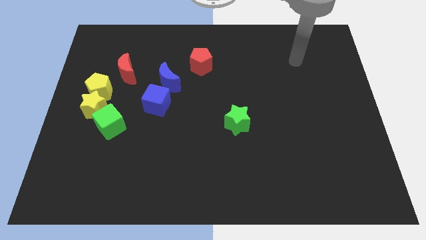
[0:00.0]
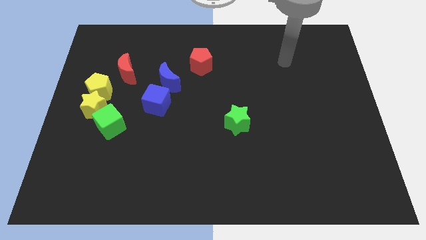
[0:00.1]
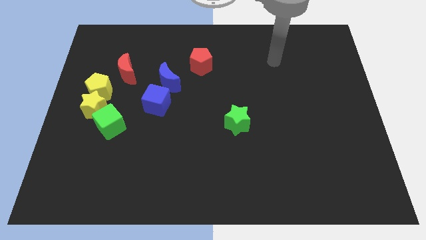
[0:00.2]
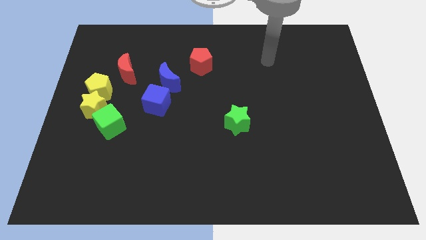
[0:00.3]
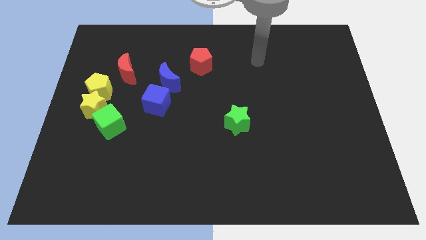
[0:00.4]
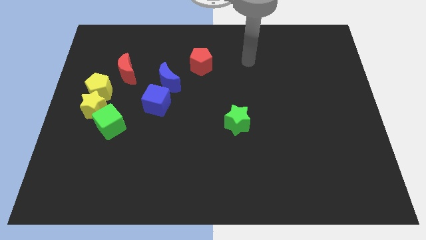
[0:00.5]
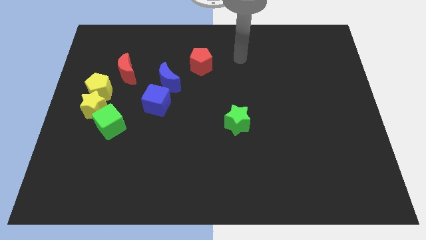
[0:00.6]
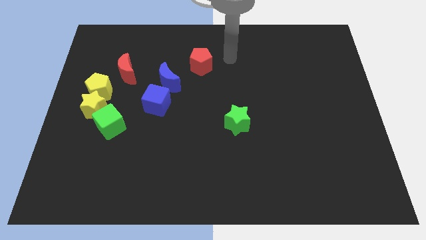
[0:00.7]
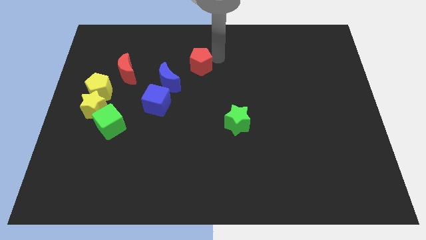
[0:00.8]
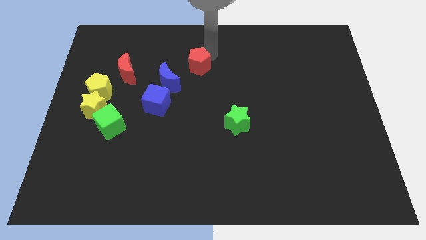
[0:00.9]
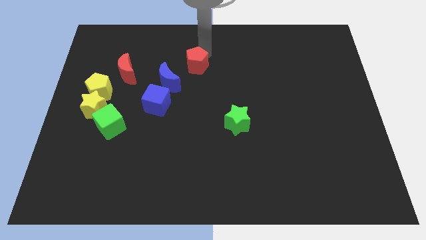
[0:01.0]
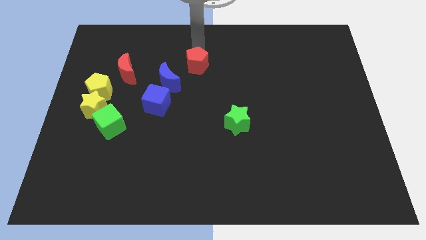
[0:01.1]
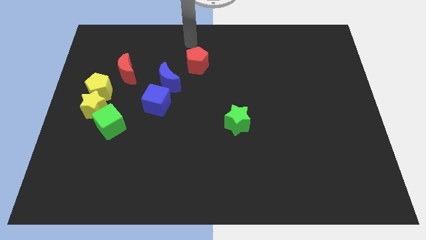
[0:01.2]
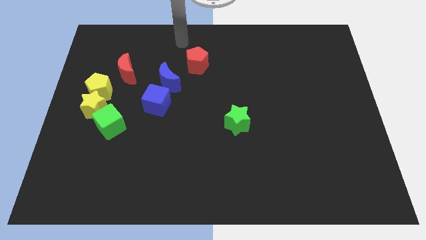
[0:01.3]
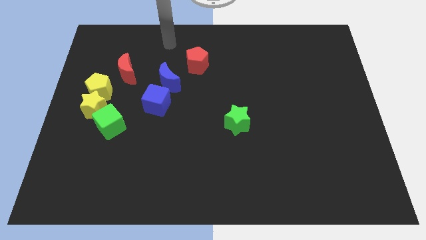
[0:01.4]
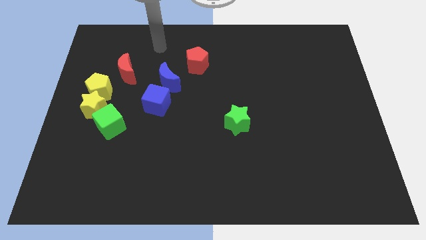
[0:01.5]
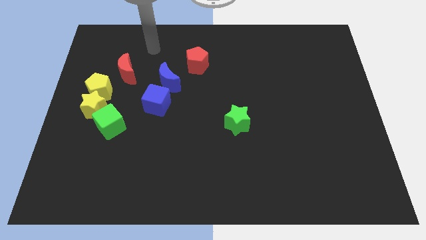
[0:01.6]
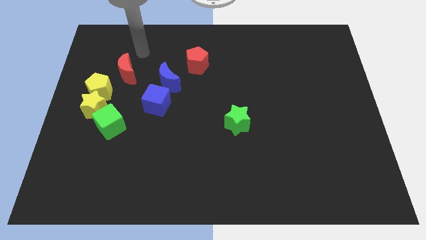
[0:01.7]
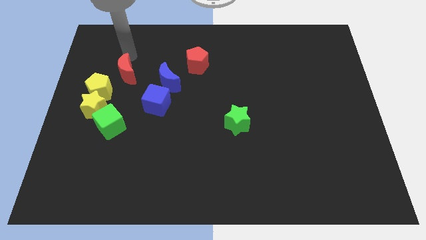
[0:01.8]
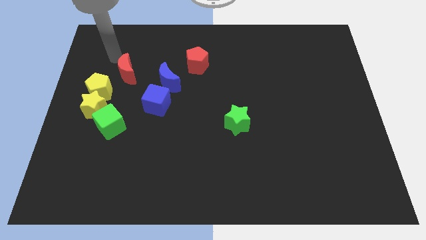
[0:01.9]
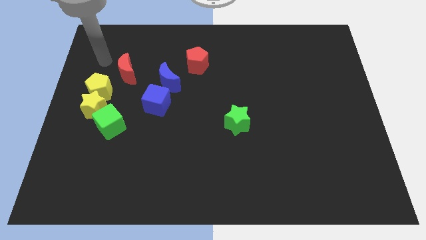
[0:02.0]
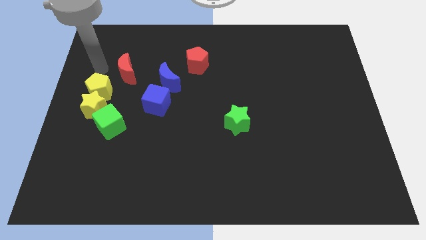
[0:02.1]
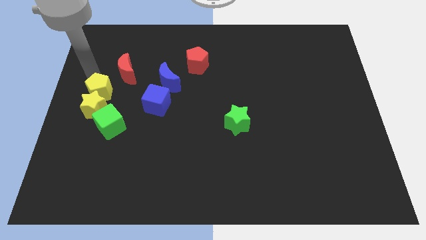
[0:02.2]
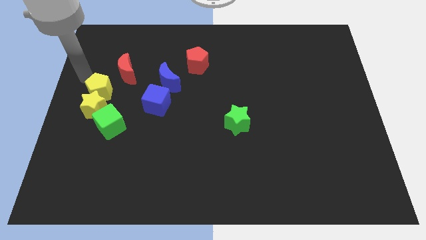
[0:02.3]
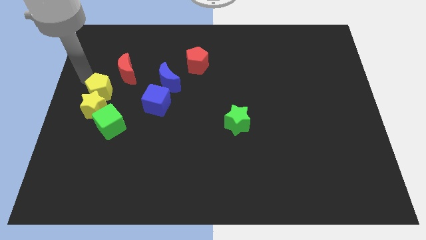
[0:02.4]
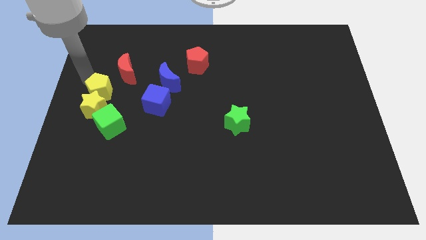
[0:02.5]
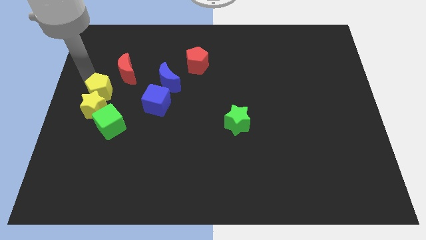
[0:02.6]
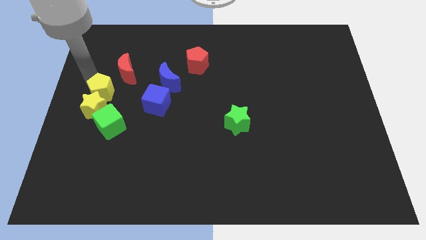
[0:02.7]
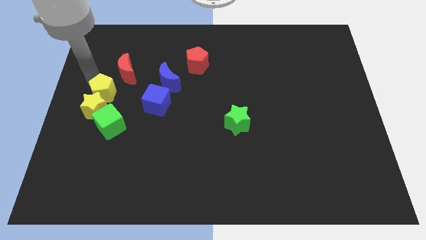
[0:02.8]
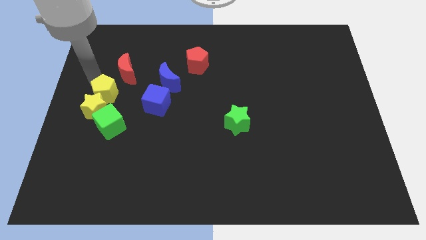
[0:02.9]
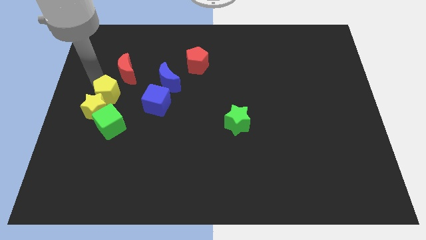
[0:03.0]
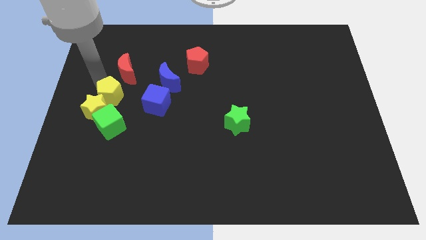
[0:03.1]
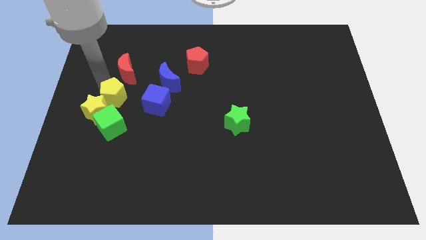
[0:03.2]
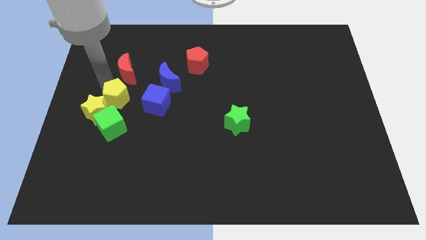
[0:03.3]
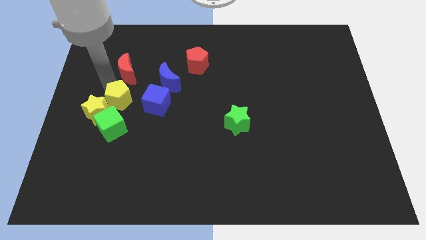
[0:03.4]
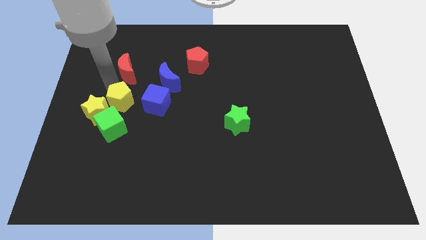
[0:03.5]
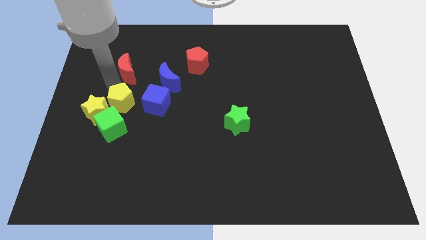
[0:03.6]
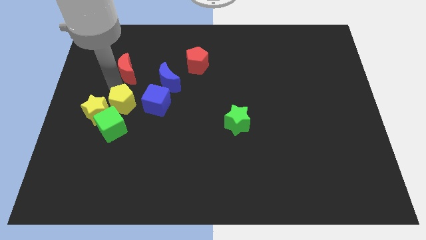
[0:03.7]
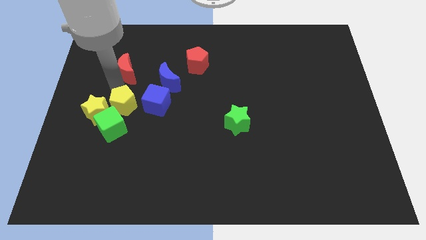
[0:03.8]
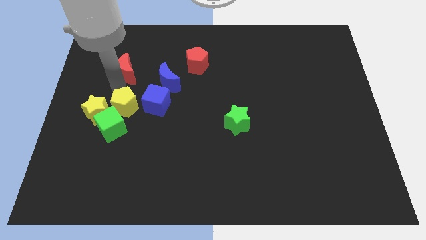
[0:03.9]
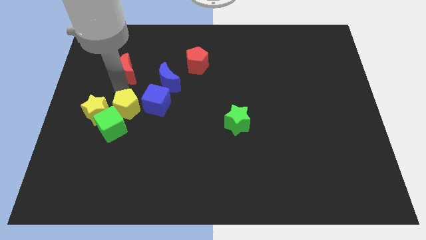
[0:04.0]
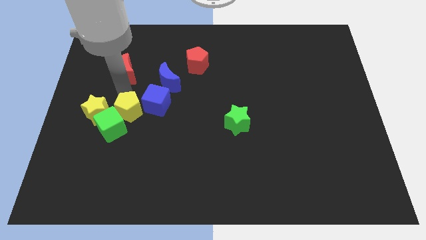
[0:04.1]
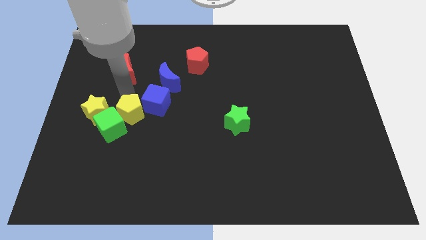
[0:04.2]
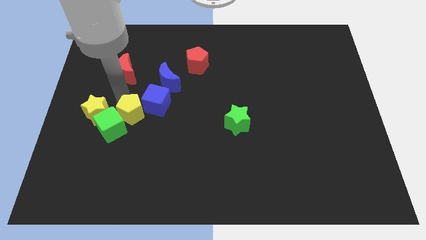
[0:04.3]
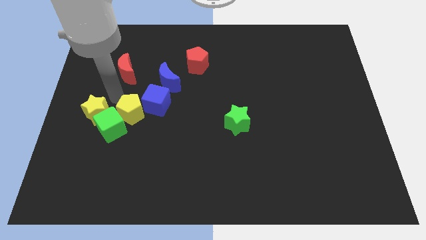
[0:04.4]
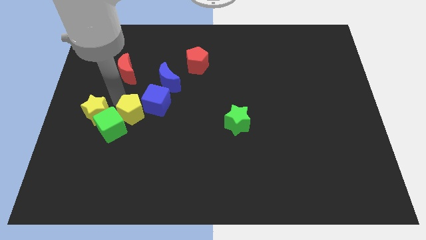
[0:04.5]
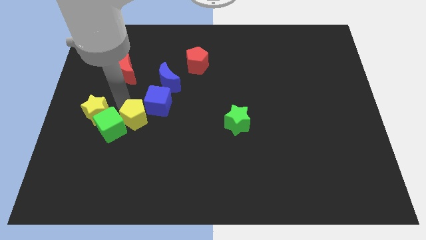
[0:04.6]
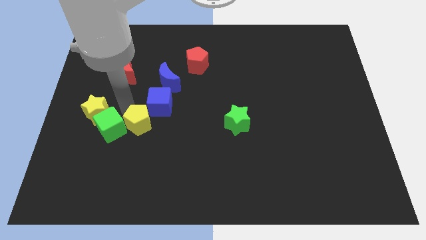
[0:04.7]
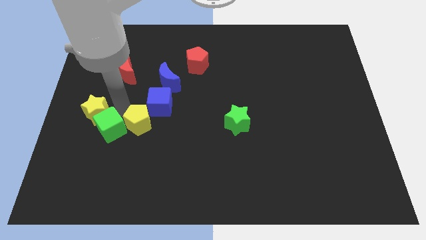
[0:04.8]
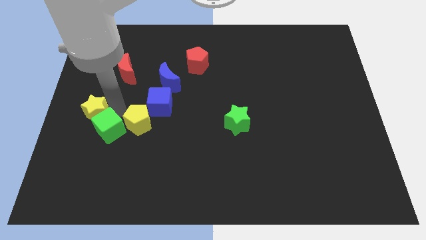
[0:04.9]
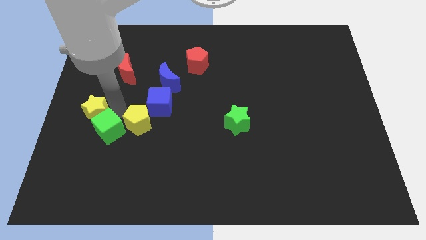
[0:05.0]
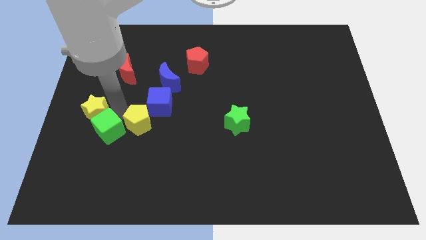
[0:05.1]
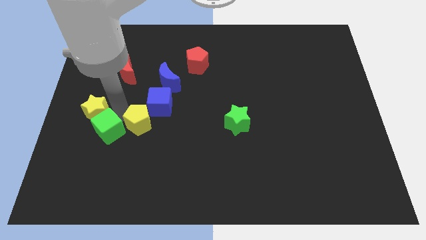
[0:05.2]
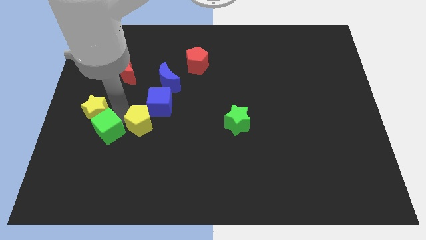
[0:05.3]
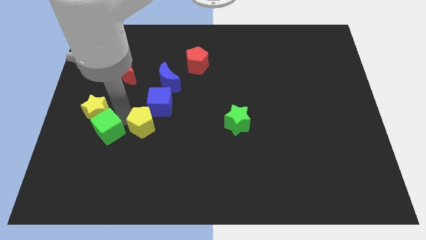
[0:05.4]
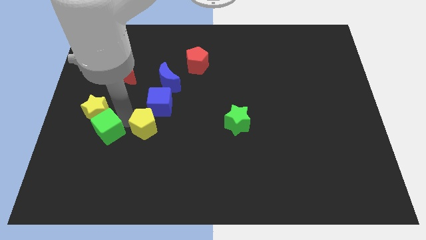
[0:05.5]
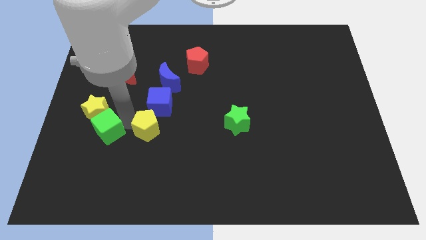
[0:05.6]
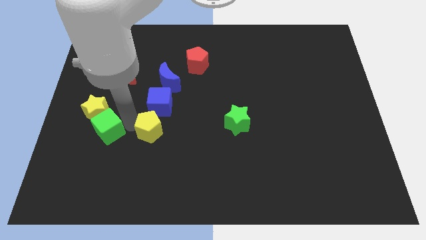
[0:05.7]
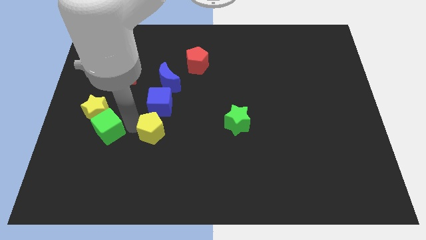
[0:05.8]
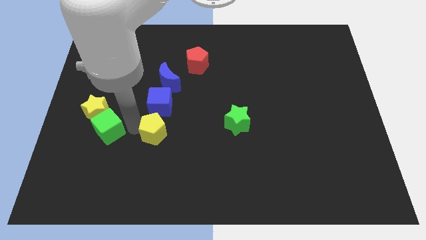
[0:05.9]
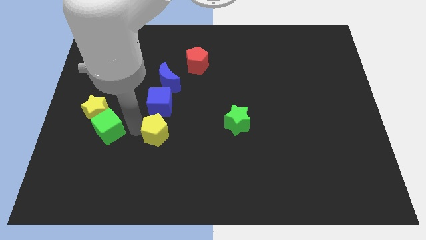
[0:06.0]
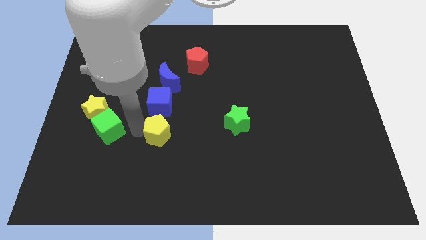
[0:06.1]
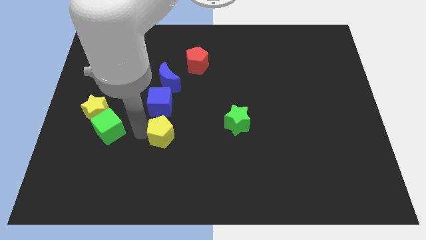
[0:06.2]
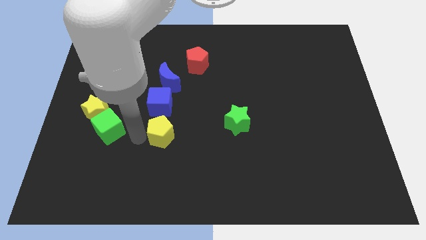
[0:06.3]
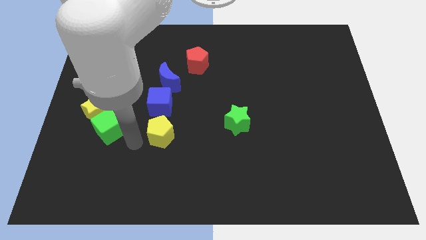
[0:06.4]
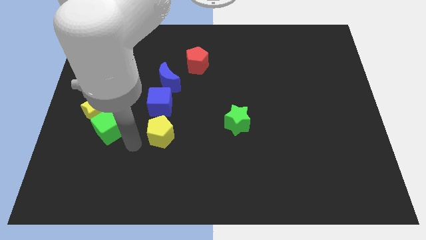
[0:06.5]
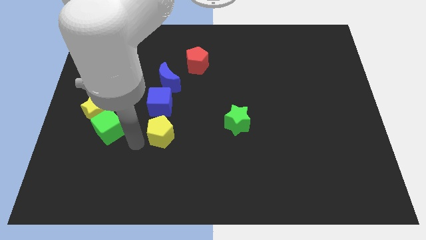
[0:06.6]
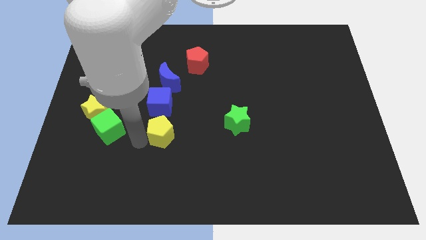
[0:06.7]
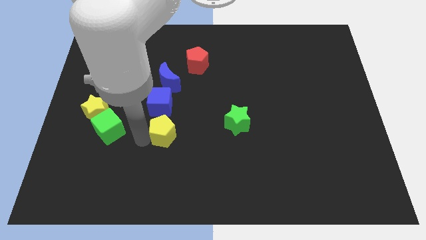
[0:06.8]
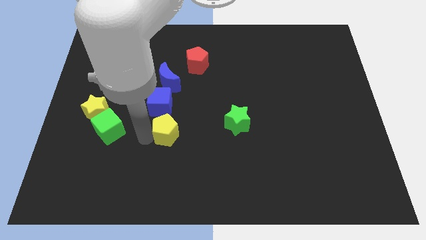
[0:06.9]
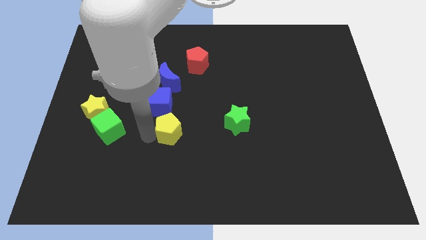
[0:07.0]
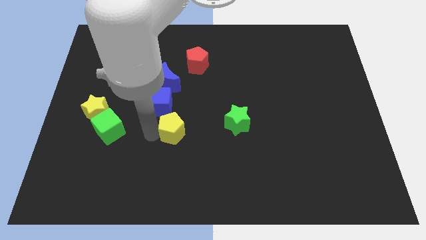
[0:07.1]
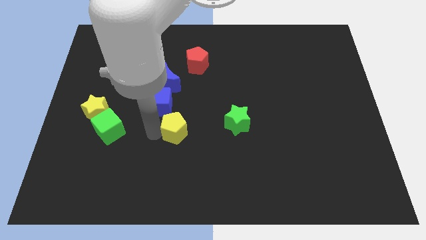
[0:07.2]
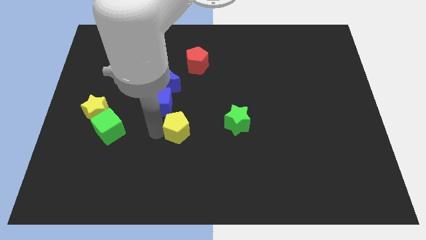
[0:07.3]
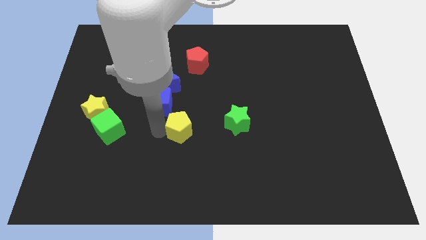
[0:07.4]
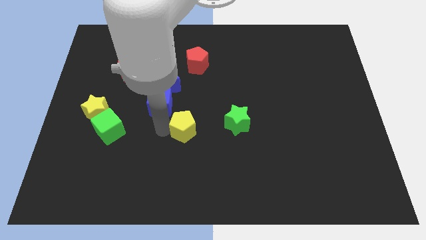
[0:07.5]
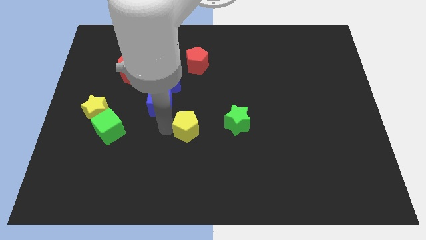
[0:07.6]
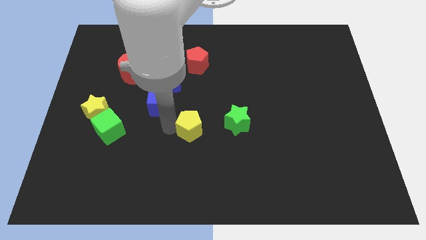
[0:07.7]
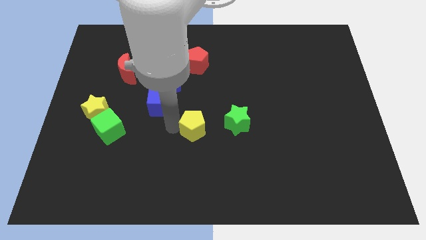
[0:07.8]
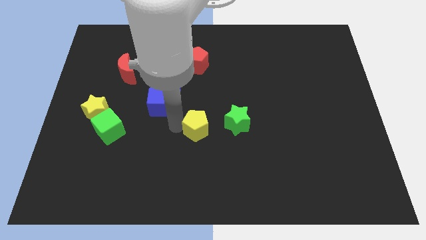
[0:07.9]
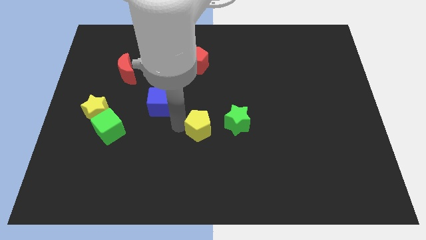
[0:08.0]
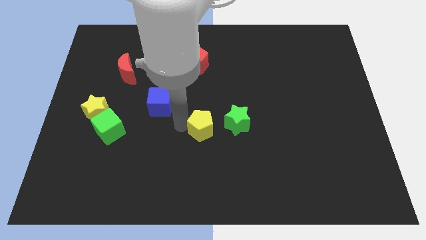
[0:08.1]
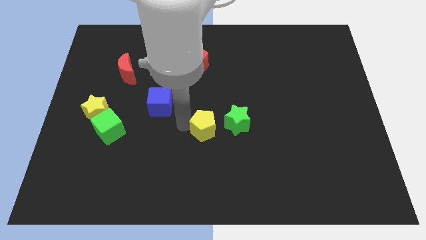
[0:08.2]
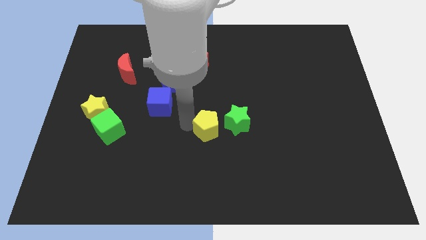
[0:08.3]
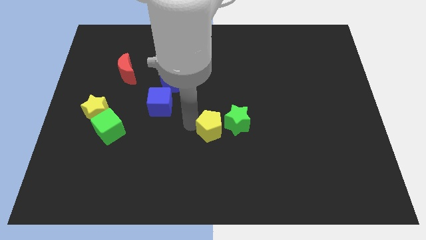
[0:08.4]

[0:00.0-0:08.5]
put the yellow pentagon close to the green star
